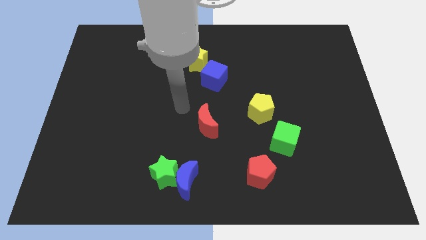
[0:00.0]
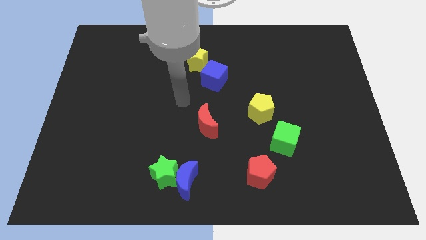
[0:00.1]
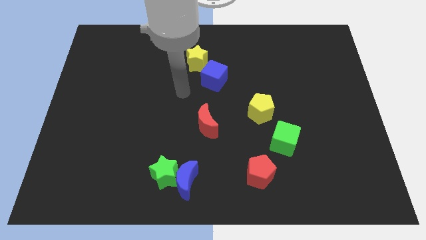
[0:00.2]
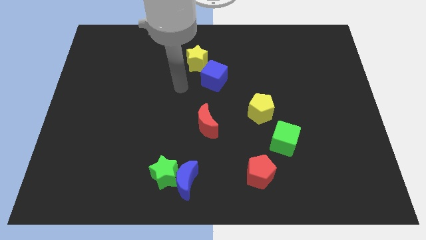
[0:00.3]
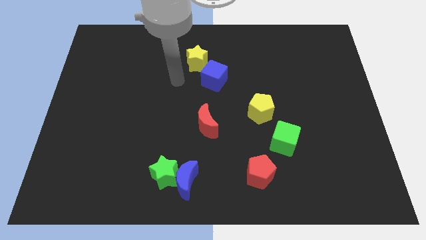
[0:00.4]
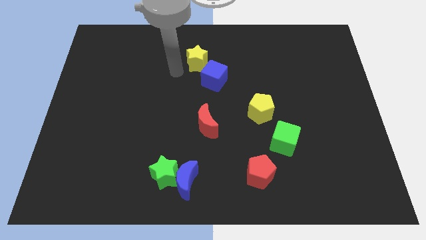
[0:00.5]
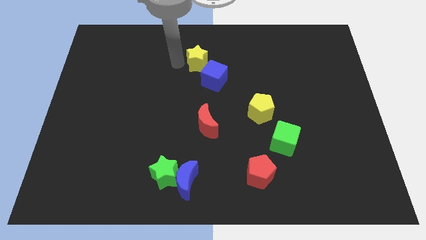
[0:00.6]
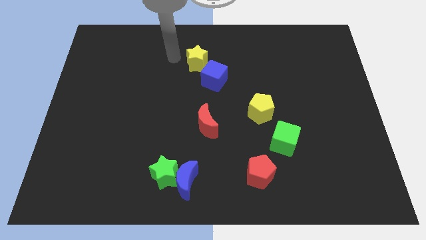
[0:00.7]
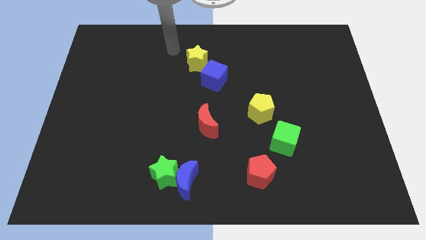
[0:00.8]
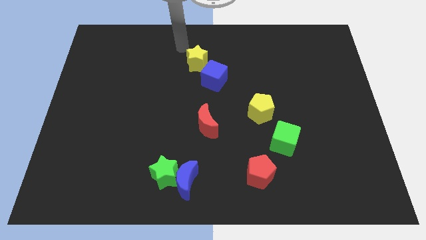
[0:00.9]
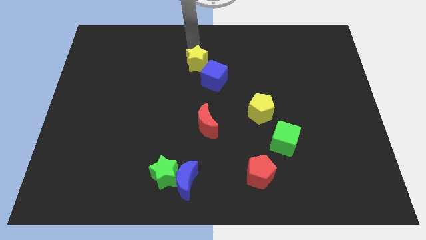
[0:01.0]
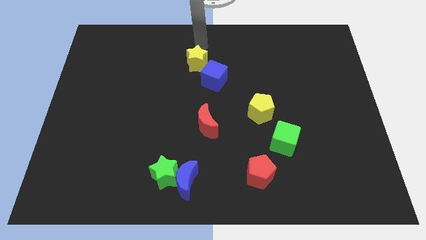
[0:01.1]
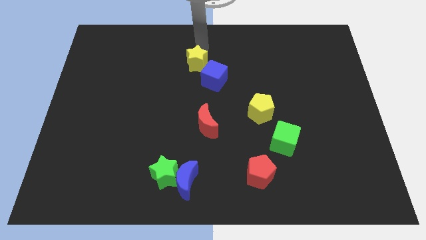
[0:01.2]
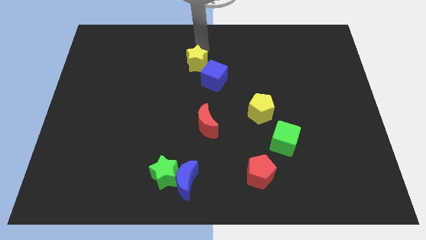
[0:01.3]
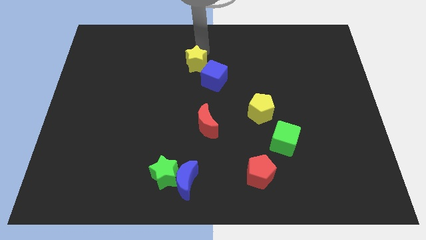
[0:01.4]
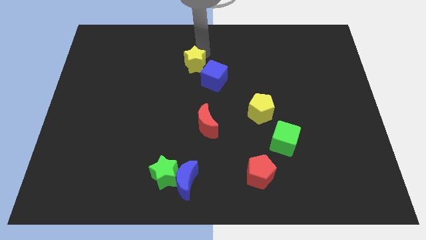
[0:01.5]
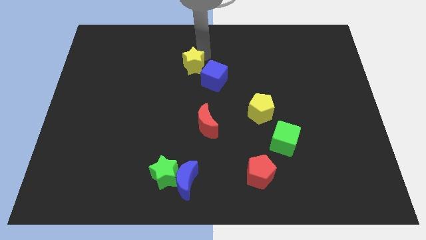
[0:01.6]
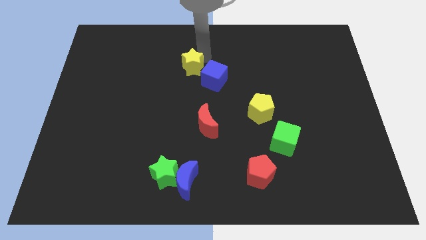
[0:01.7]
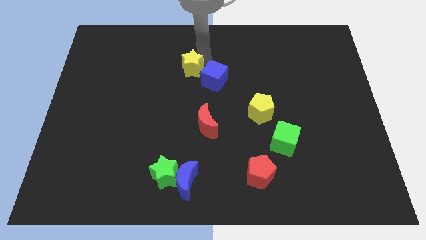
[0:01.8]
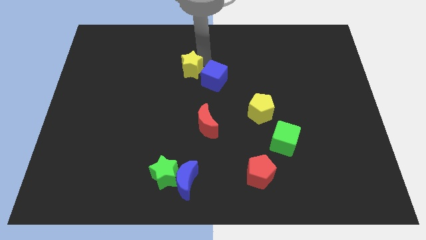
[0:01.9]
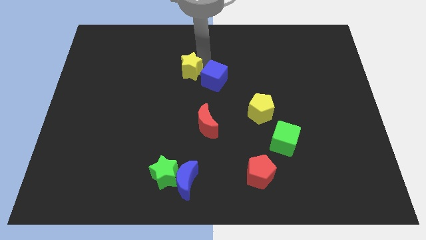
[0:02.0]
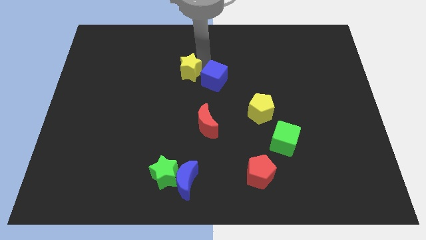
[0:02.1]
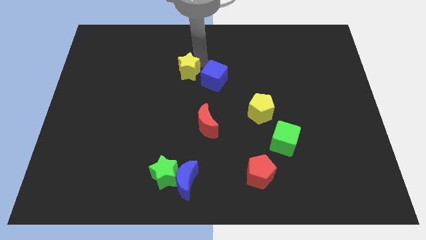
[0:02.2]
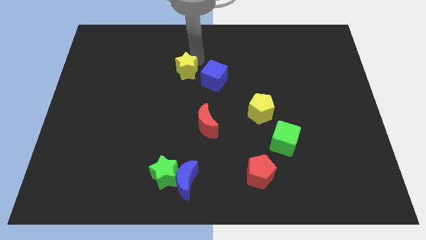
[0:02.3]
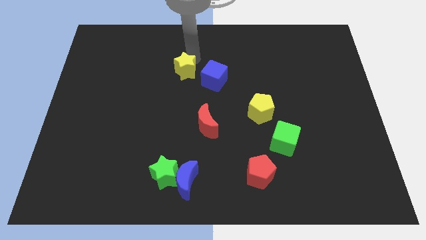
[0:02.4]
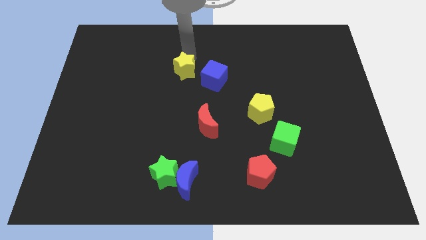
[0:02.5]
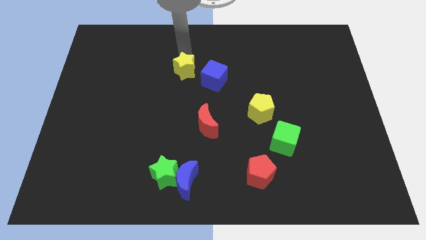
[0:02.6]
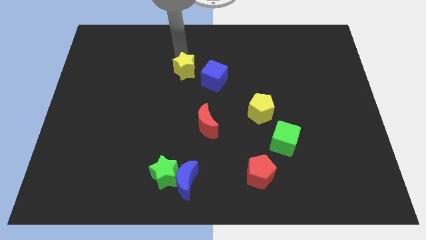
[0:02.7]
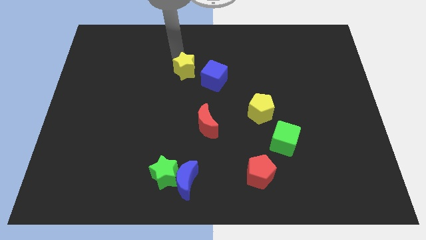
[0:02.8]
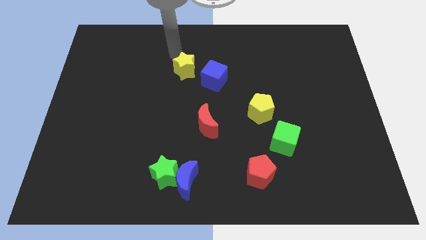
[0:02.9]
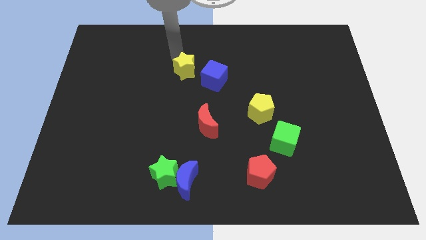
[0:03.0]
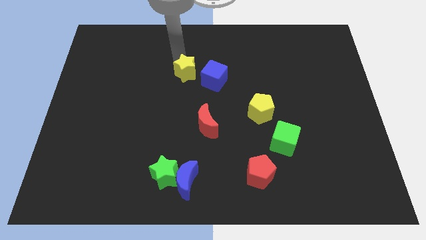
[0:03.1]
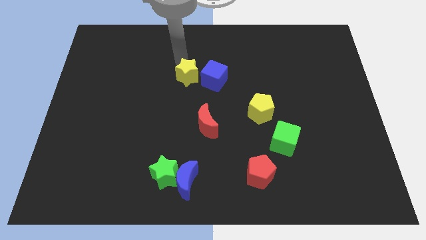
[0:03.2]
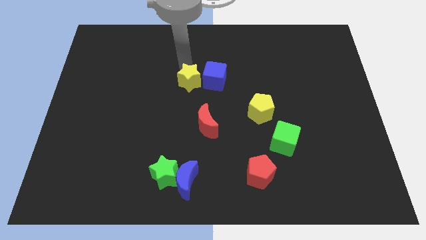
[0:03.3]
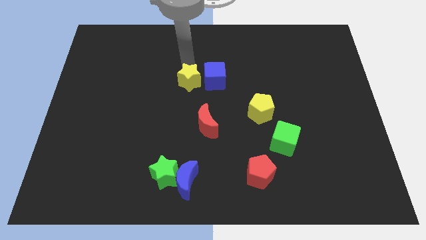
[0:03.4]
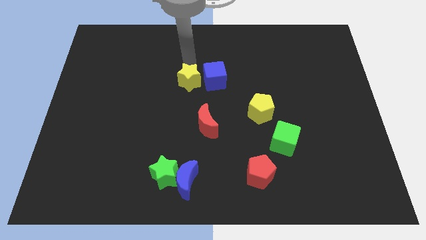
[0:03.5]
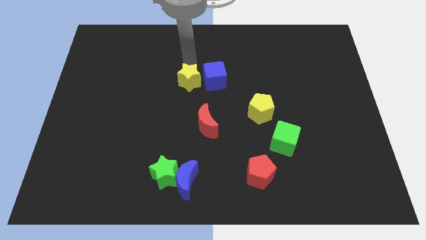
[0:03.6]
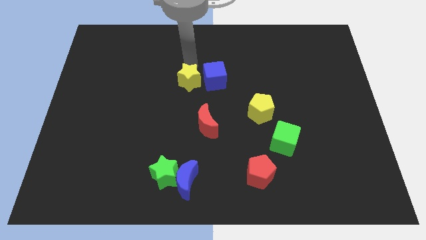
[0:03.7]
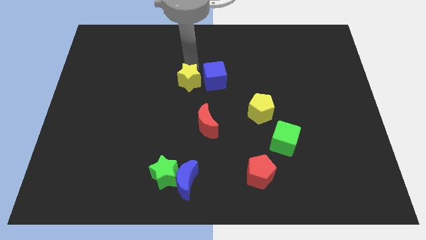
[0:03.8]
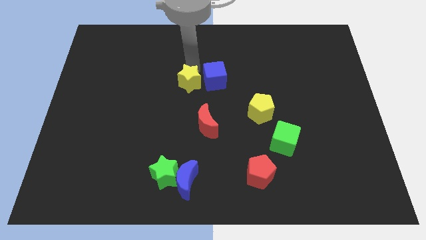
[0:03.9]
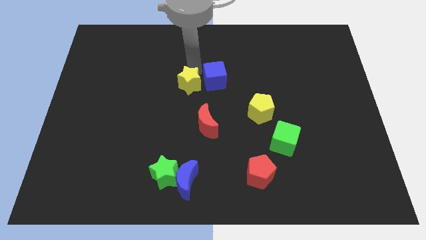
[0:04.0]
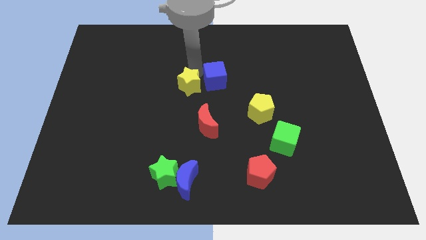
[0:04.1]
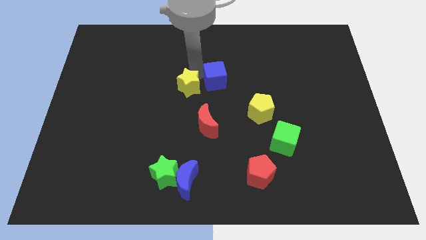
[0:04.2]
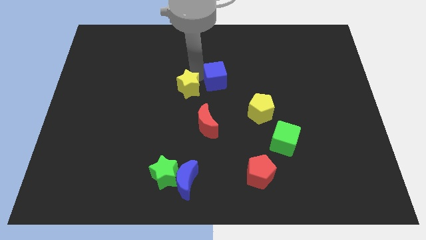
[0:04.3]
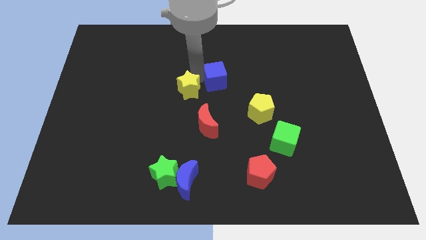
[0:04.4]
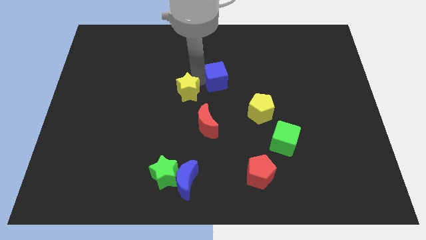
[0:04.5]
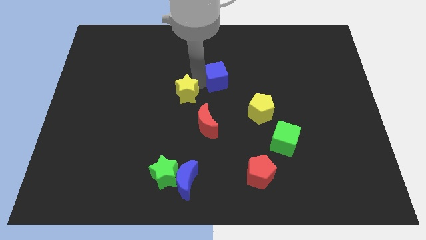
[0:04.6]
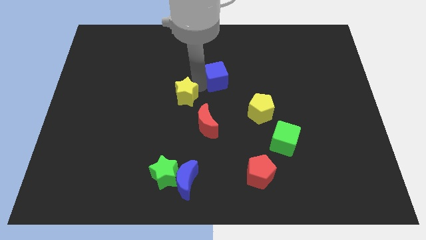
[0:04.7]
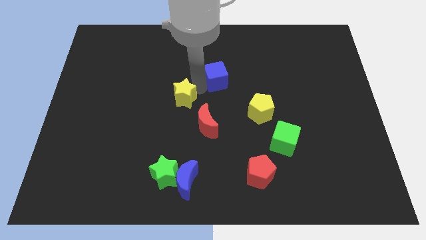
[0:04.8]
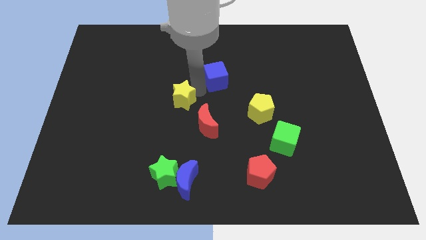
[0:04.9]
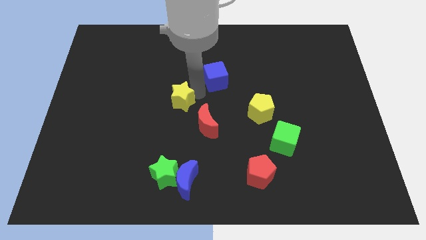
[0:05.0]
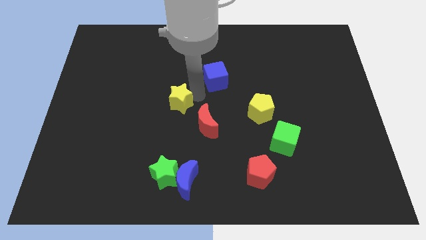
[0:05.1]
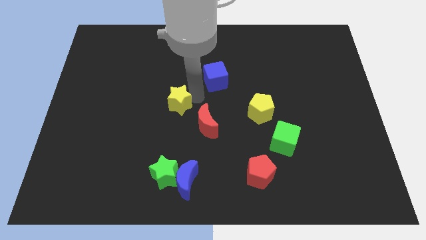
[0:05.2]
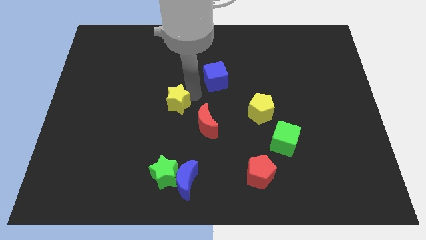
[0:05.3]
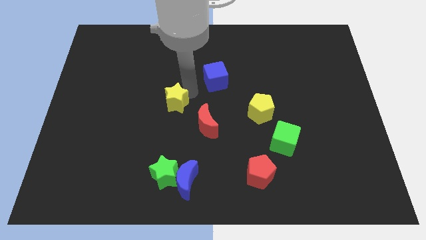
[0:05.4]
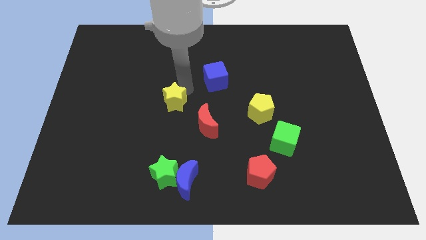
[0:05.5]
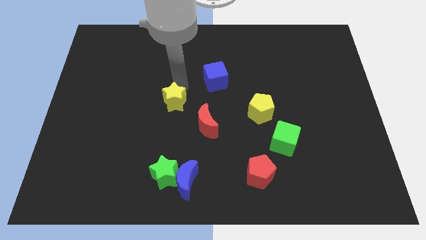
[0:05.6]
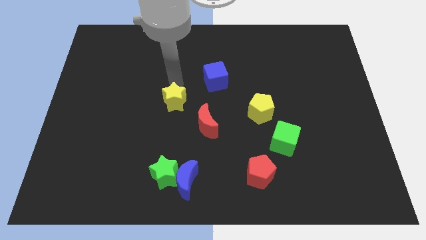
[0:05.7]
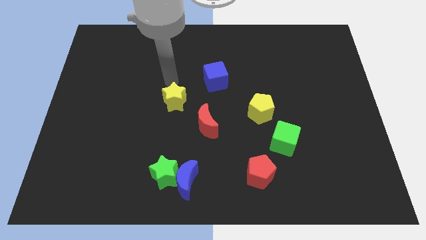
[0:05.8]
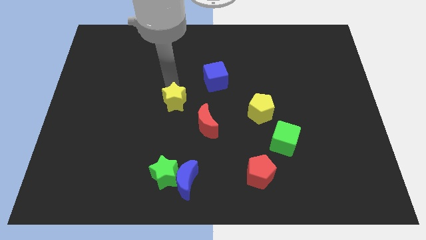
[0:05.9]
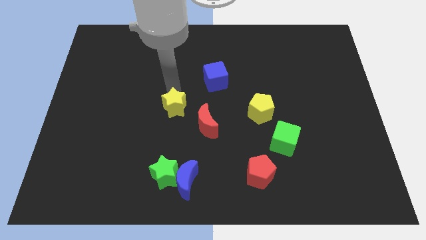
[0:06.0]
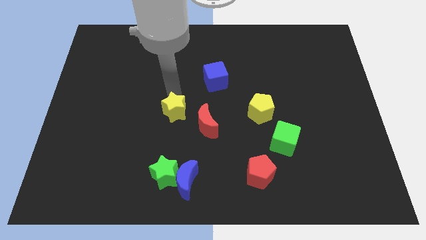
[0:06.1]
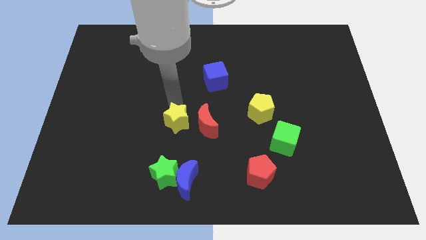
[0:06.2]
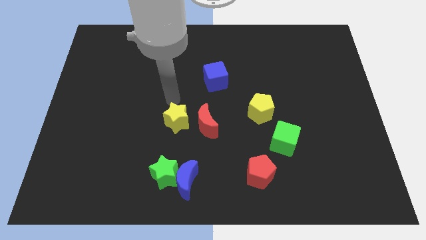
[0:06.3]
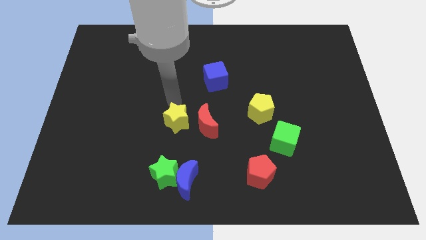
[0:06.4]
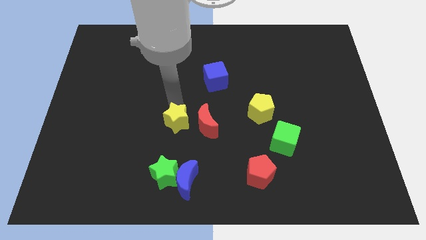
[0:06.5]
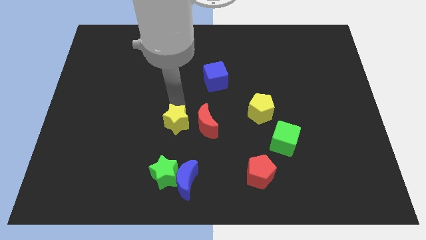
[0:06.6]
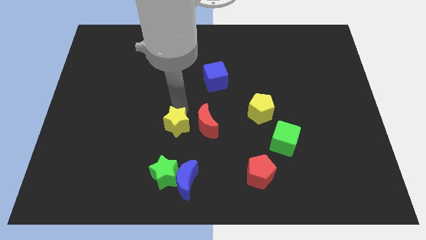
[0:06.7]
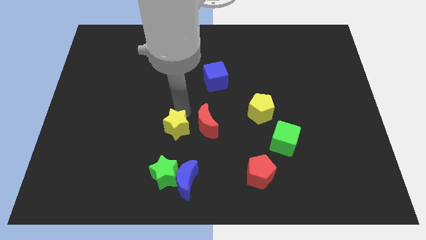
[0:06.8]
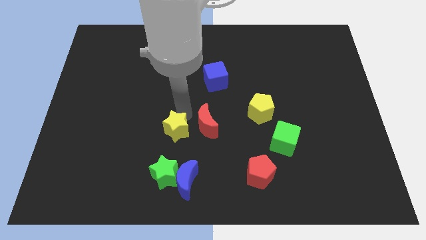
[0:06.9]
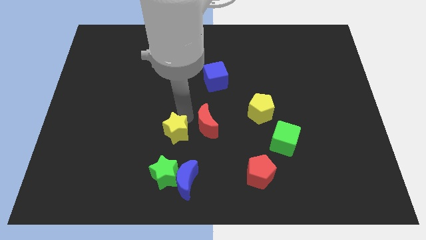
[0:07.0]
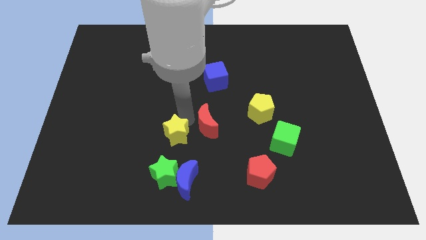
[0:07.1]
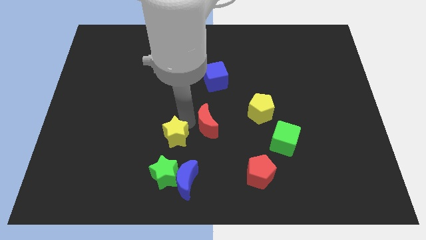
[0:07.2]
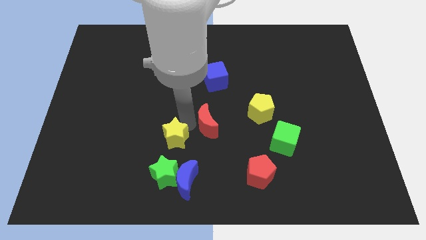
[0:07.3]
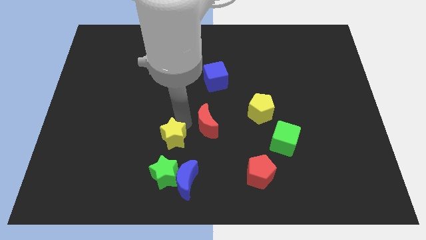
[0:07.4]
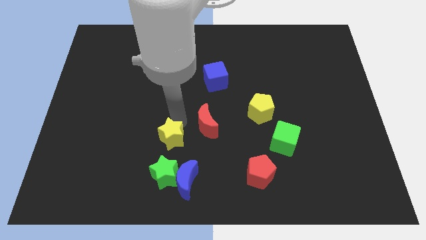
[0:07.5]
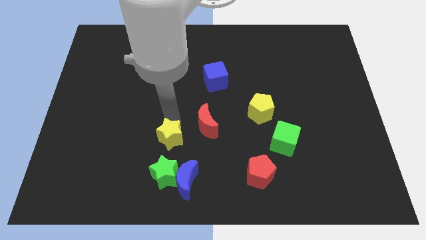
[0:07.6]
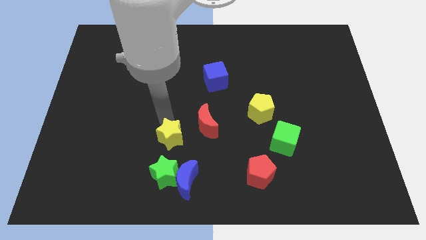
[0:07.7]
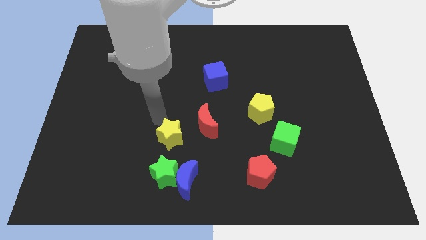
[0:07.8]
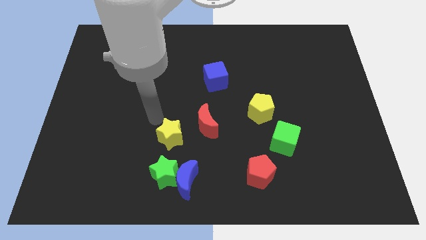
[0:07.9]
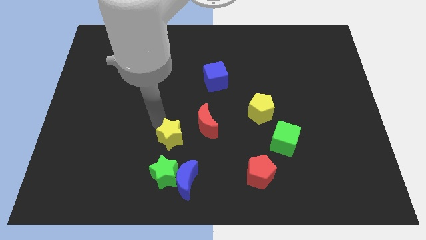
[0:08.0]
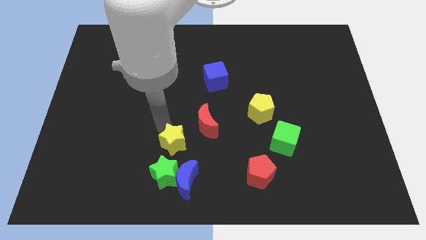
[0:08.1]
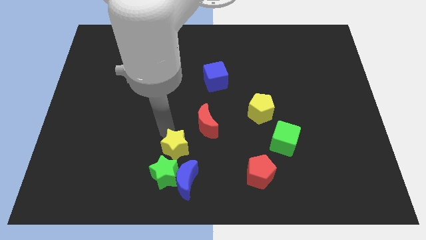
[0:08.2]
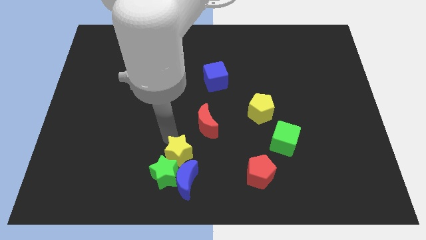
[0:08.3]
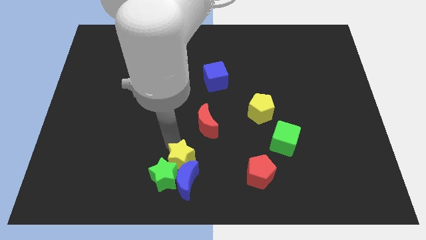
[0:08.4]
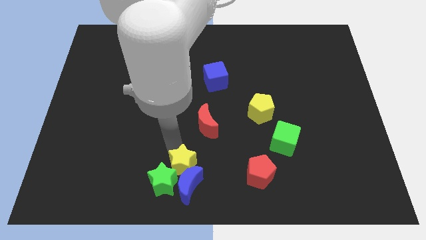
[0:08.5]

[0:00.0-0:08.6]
move the yellow star to the bottom
